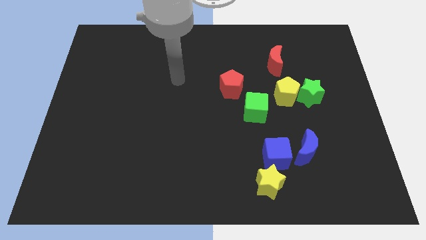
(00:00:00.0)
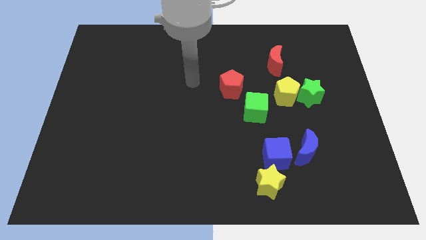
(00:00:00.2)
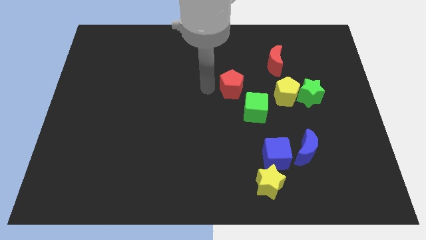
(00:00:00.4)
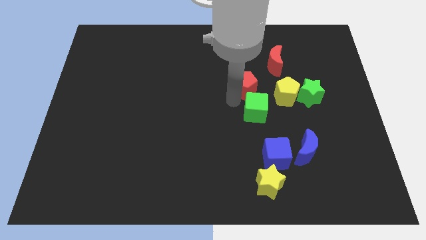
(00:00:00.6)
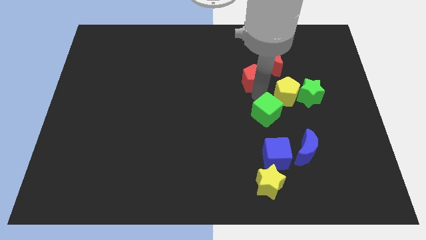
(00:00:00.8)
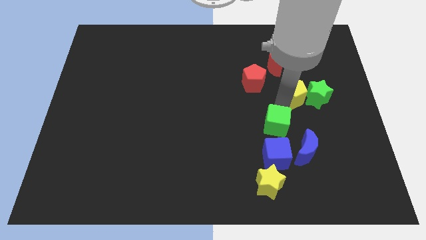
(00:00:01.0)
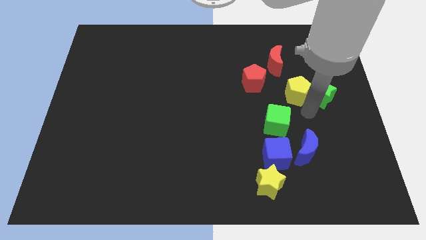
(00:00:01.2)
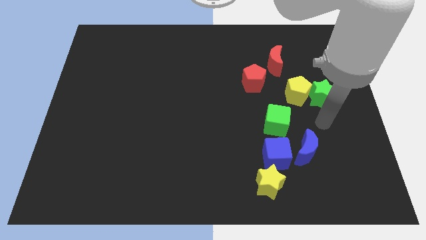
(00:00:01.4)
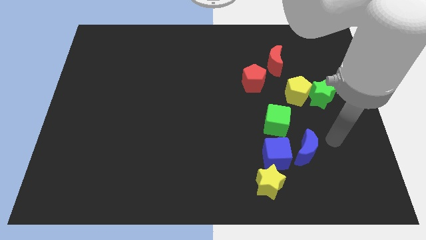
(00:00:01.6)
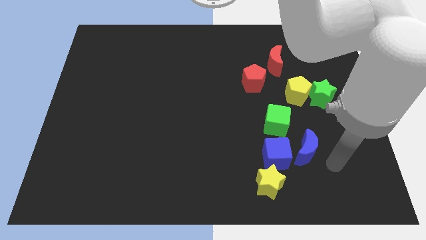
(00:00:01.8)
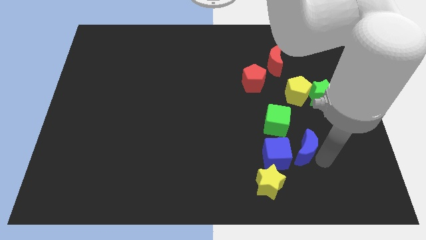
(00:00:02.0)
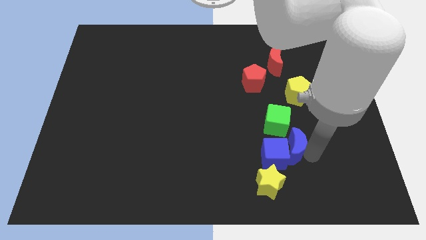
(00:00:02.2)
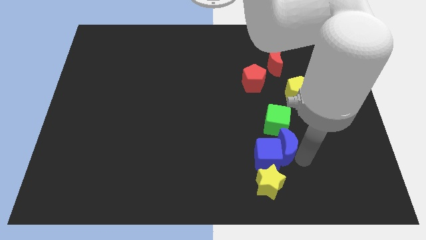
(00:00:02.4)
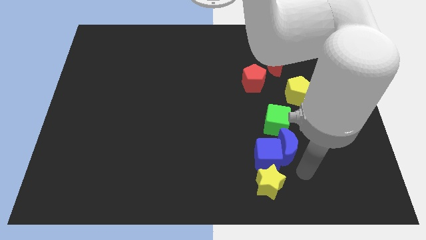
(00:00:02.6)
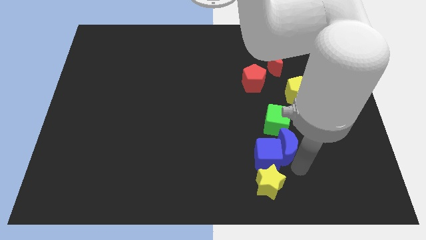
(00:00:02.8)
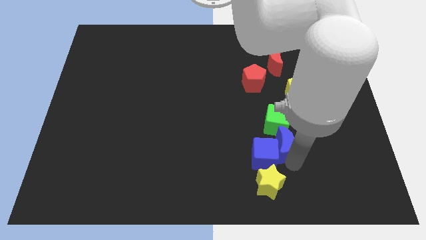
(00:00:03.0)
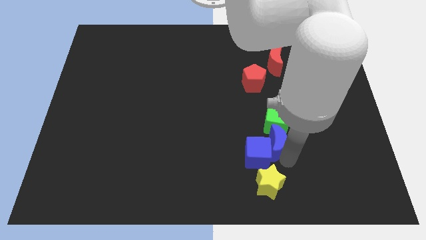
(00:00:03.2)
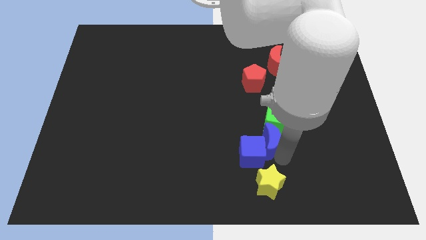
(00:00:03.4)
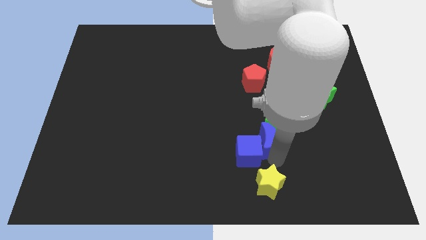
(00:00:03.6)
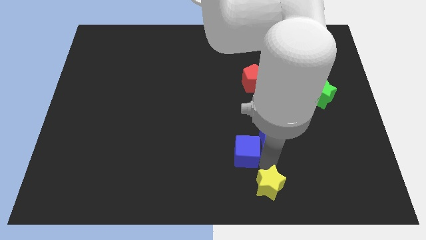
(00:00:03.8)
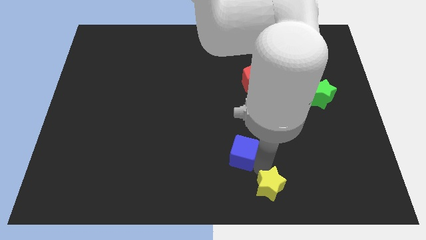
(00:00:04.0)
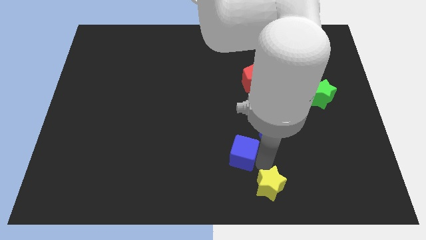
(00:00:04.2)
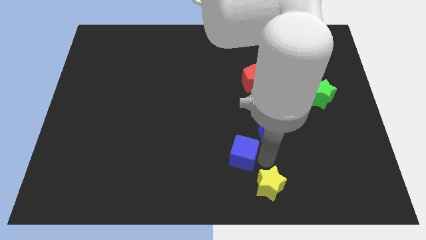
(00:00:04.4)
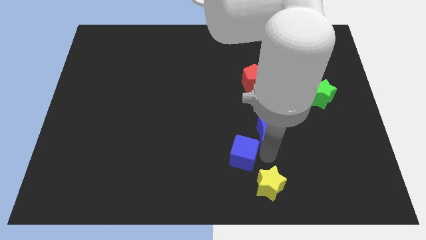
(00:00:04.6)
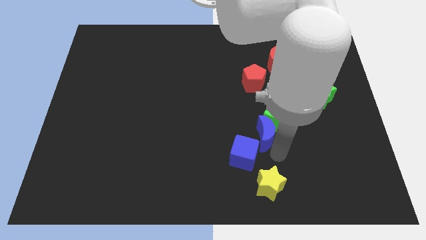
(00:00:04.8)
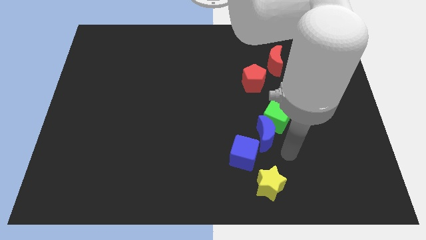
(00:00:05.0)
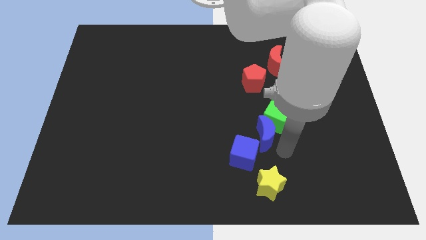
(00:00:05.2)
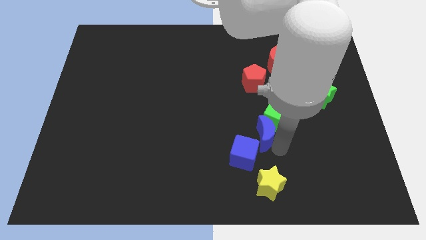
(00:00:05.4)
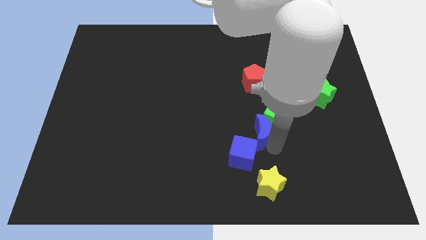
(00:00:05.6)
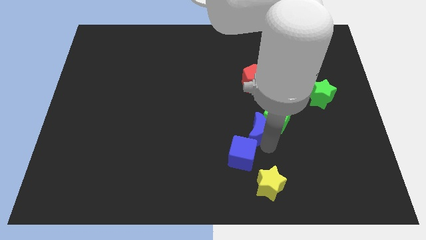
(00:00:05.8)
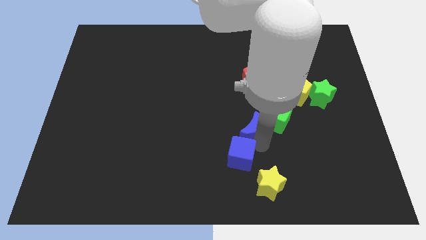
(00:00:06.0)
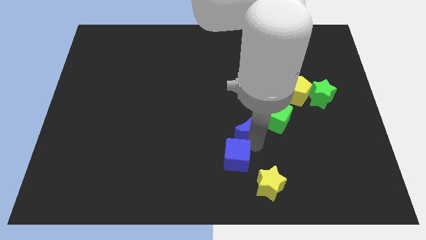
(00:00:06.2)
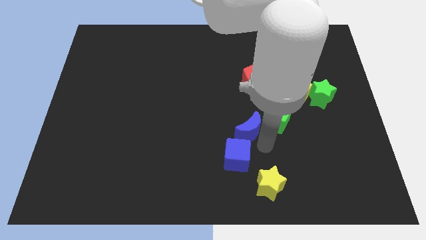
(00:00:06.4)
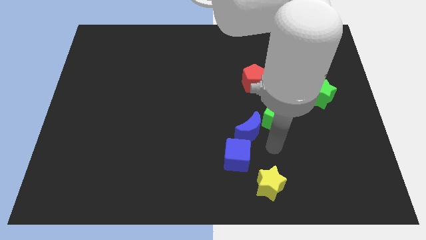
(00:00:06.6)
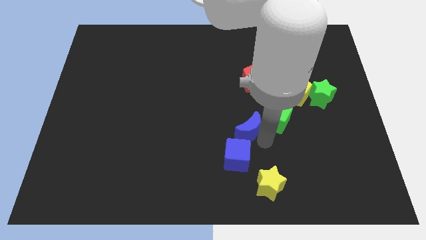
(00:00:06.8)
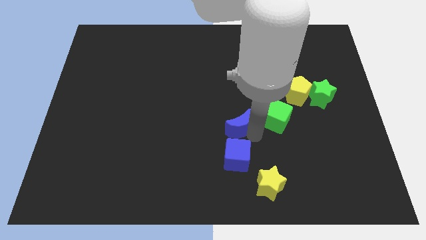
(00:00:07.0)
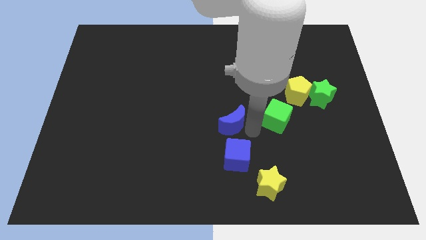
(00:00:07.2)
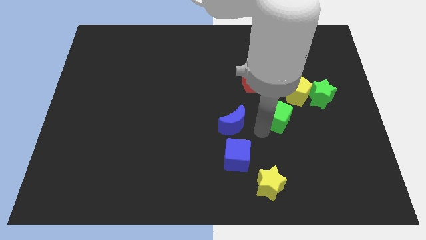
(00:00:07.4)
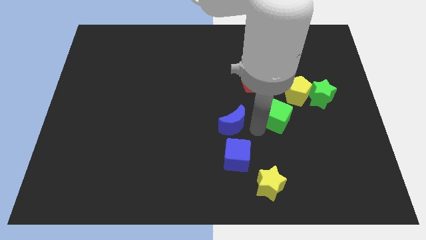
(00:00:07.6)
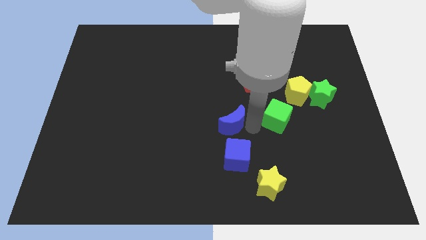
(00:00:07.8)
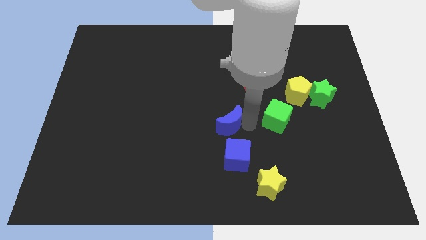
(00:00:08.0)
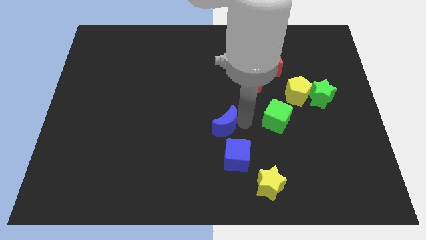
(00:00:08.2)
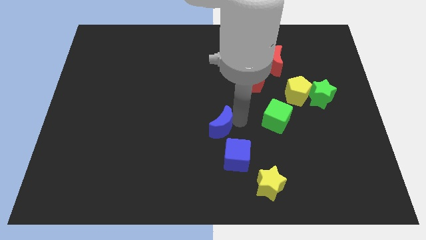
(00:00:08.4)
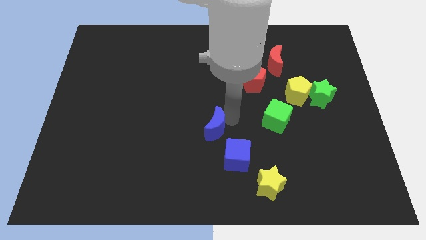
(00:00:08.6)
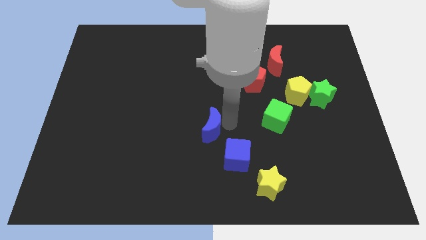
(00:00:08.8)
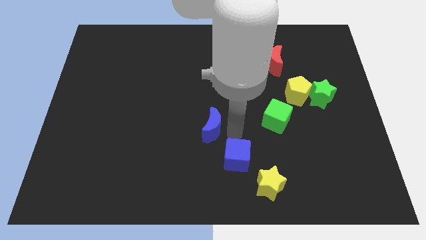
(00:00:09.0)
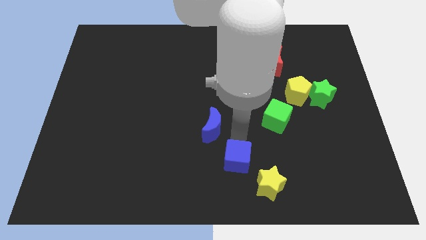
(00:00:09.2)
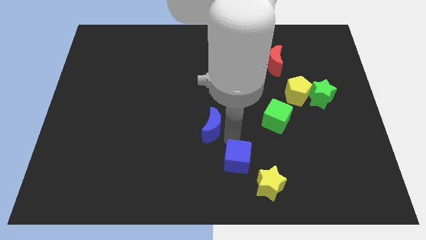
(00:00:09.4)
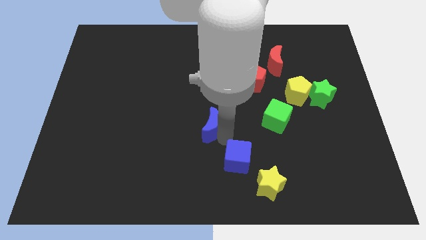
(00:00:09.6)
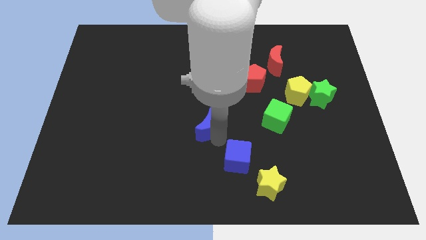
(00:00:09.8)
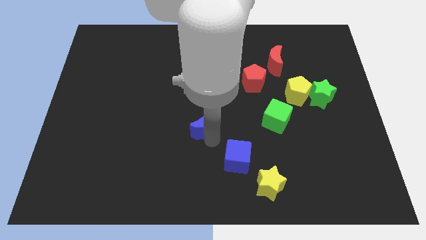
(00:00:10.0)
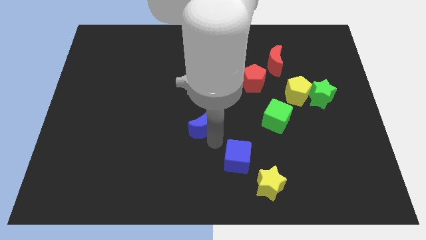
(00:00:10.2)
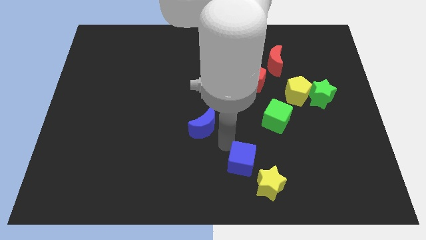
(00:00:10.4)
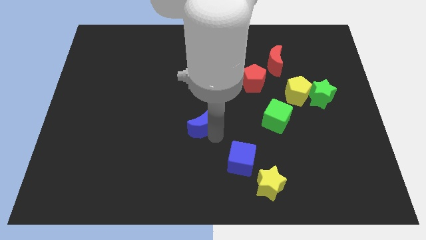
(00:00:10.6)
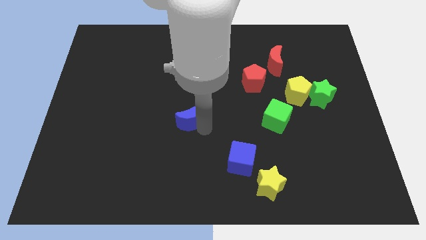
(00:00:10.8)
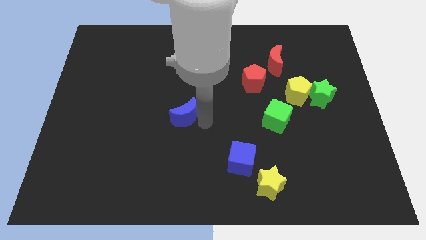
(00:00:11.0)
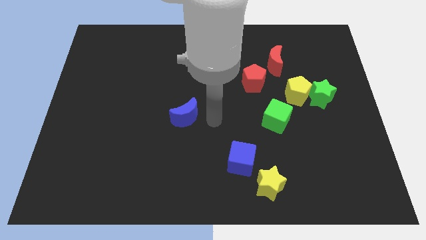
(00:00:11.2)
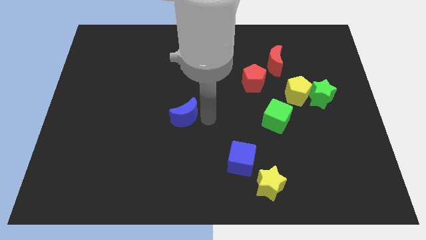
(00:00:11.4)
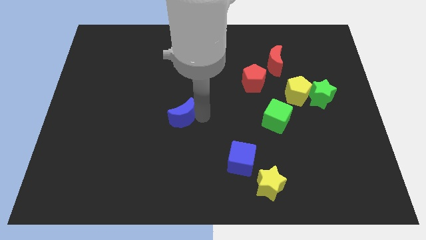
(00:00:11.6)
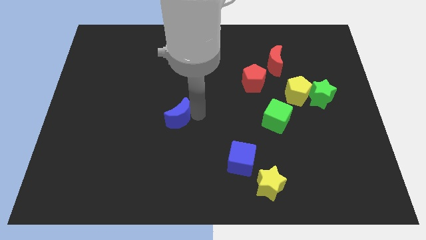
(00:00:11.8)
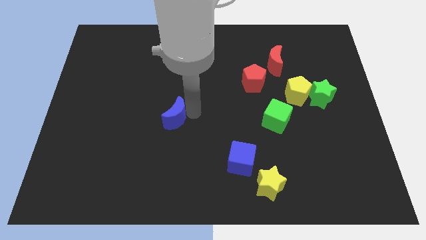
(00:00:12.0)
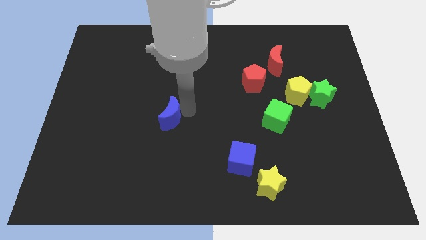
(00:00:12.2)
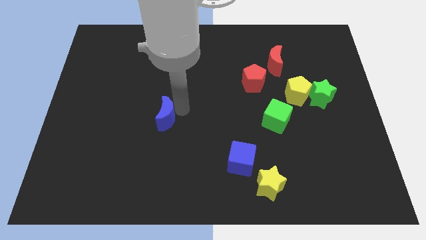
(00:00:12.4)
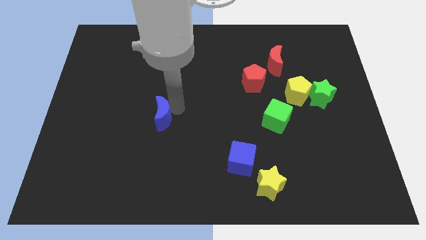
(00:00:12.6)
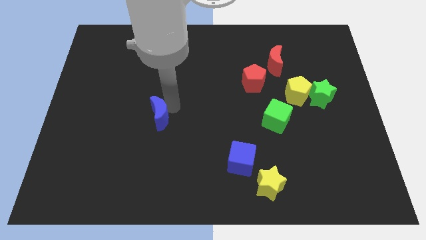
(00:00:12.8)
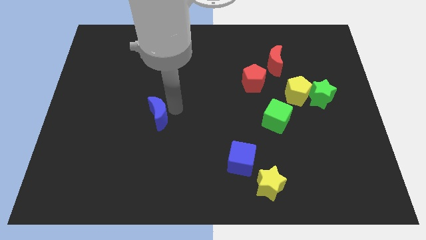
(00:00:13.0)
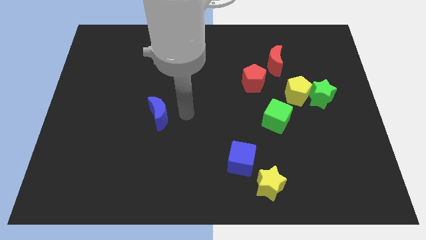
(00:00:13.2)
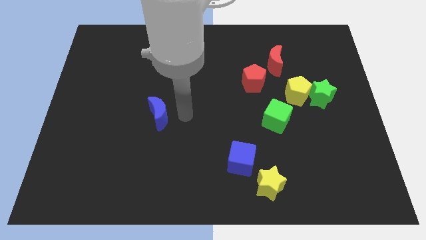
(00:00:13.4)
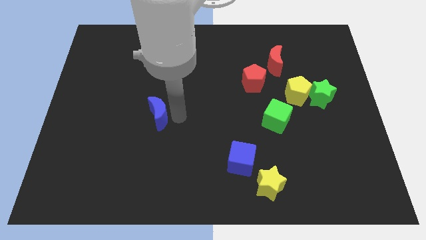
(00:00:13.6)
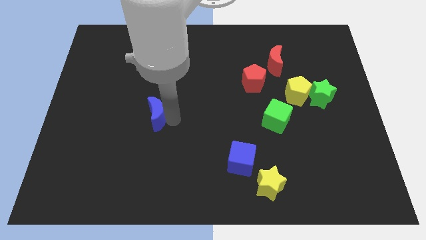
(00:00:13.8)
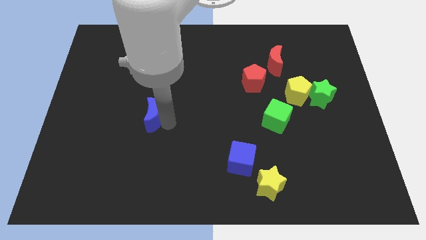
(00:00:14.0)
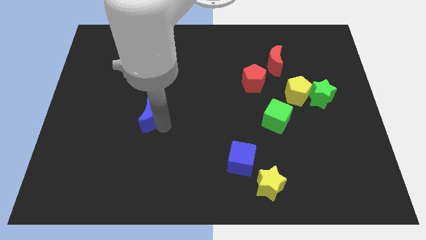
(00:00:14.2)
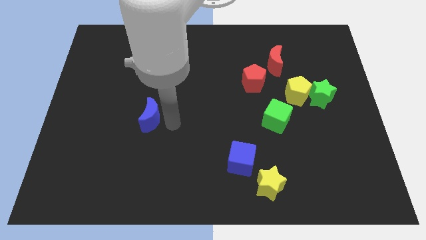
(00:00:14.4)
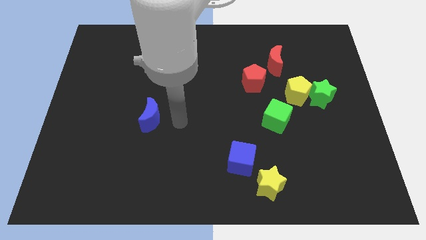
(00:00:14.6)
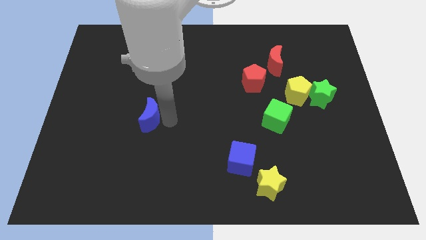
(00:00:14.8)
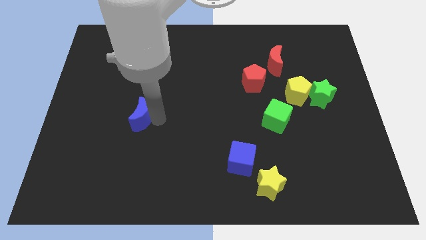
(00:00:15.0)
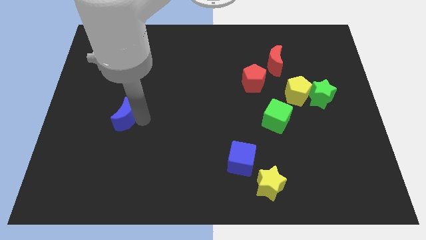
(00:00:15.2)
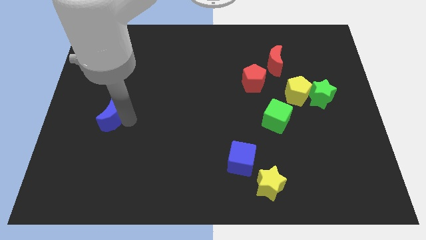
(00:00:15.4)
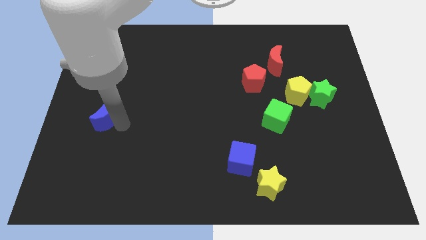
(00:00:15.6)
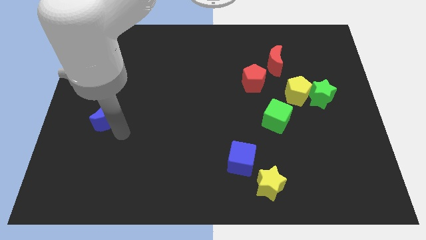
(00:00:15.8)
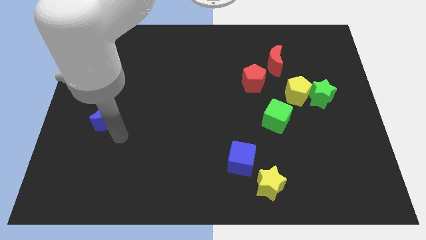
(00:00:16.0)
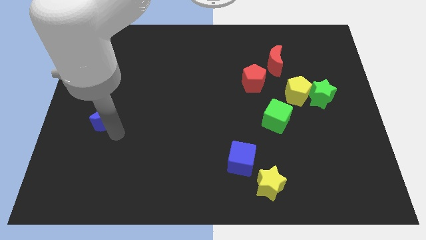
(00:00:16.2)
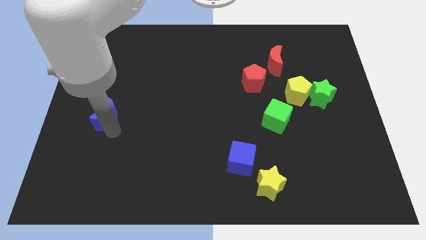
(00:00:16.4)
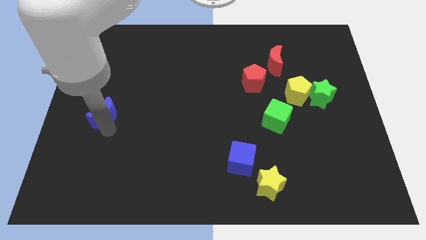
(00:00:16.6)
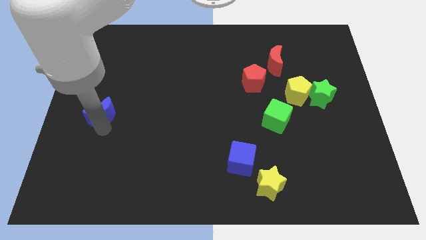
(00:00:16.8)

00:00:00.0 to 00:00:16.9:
put the blue moon to the center left
